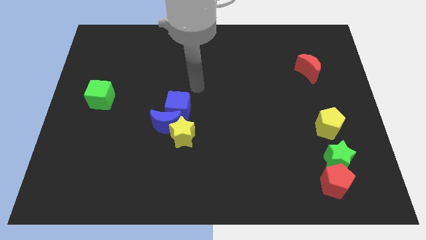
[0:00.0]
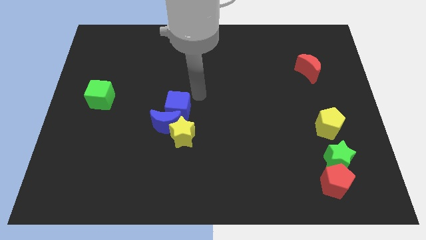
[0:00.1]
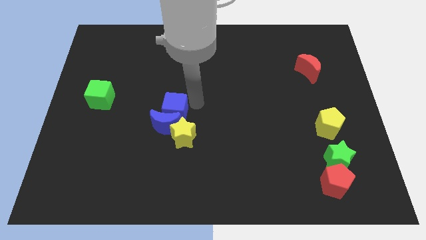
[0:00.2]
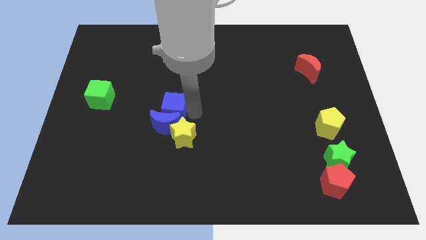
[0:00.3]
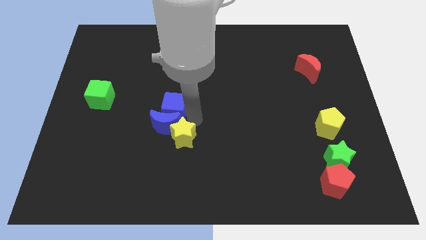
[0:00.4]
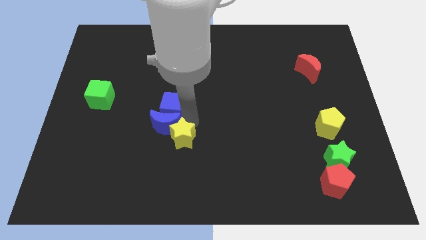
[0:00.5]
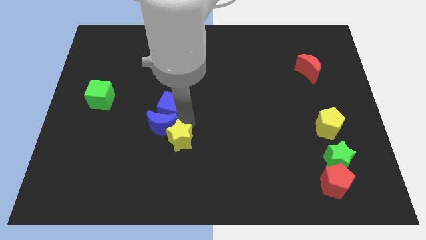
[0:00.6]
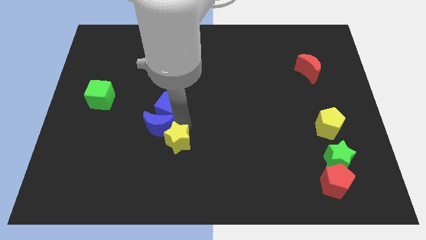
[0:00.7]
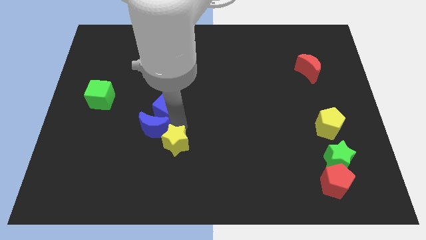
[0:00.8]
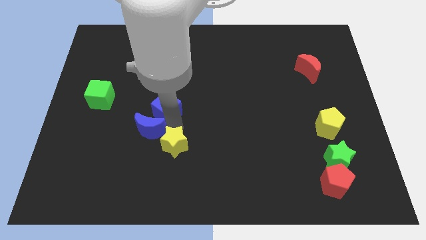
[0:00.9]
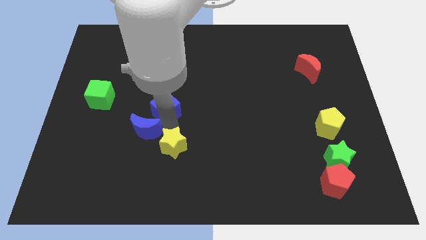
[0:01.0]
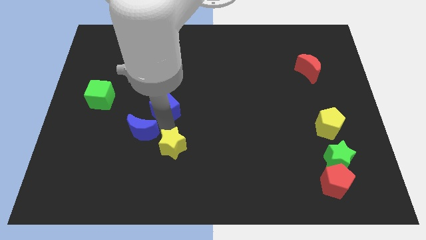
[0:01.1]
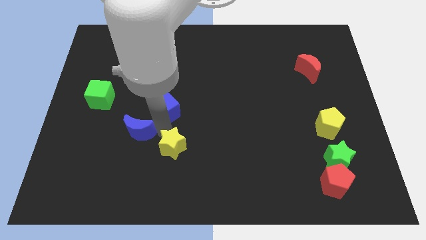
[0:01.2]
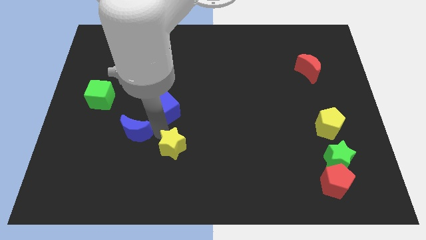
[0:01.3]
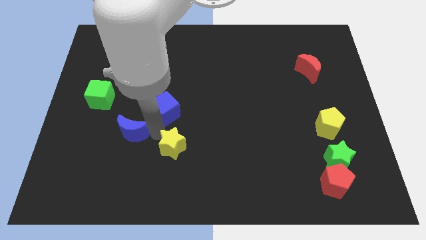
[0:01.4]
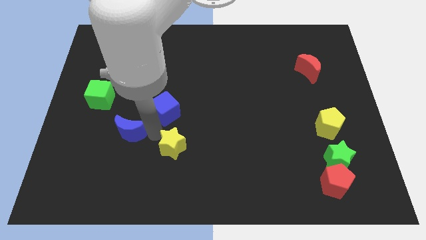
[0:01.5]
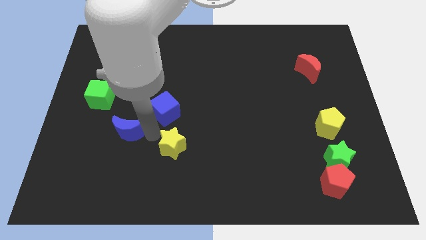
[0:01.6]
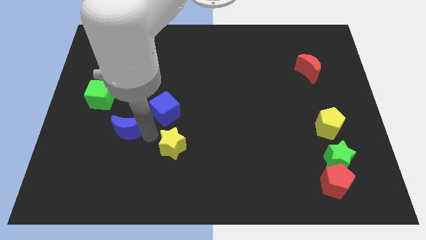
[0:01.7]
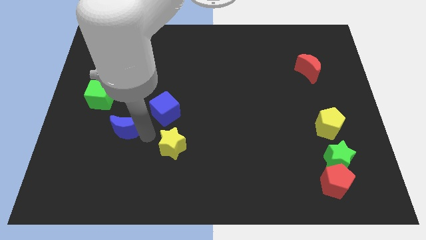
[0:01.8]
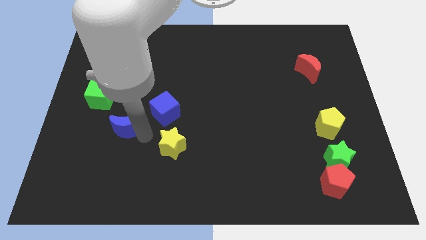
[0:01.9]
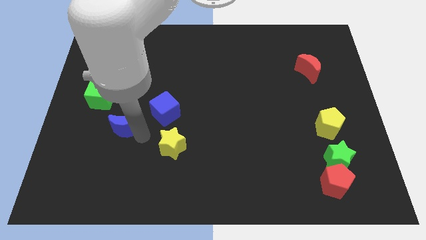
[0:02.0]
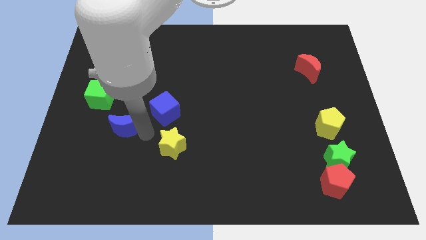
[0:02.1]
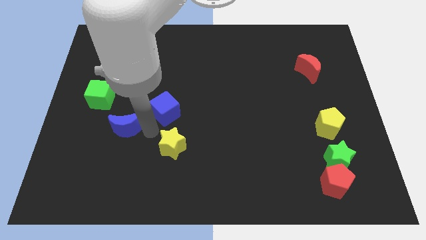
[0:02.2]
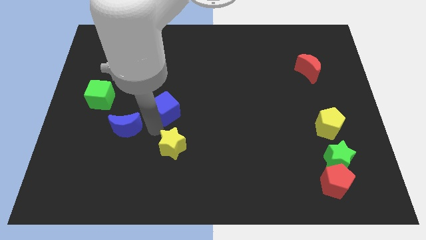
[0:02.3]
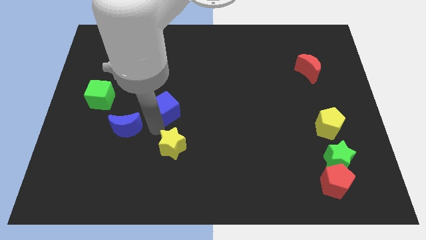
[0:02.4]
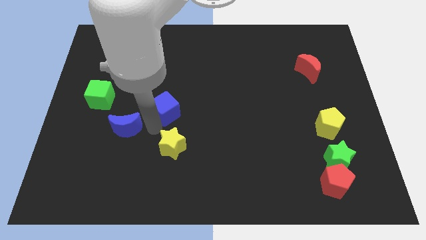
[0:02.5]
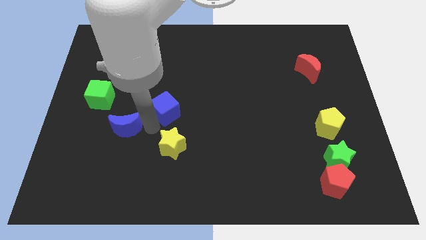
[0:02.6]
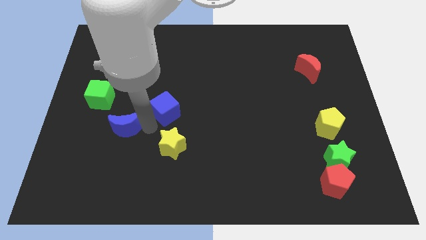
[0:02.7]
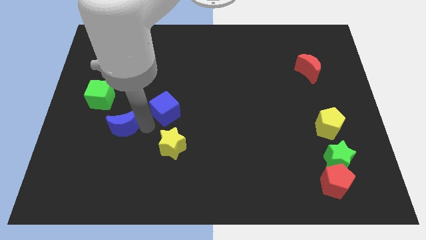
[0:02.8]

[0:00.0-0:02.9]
pull the blue moon apart from the yellow star and blue cube

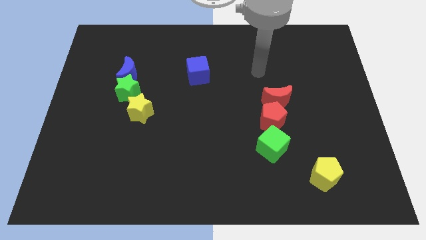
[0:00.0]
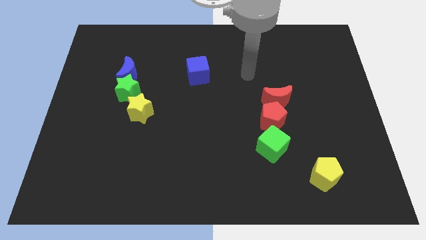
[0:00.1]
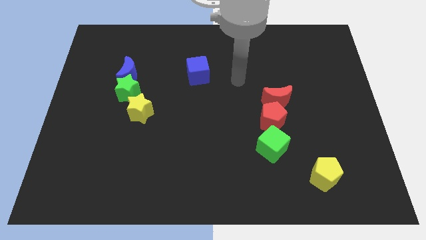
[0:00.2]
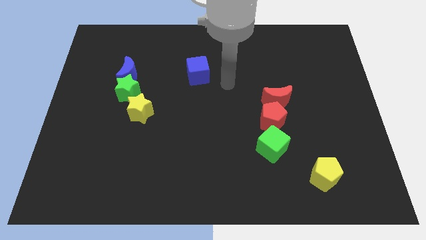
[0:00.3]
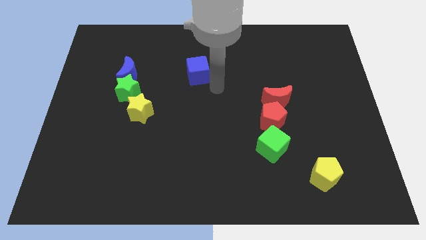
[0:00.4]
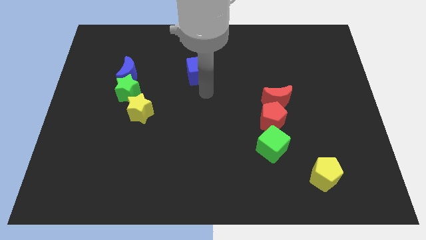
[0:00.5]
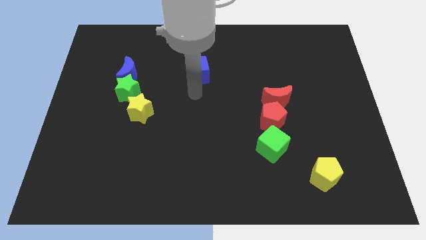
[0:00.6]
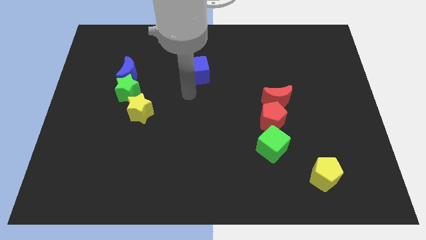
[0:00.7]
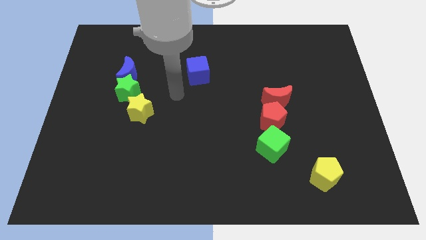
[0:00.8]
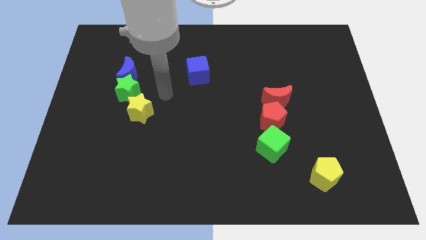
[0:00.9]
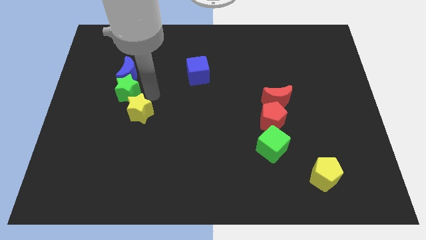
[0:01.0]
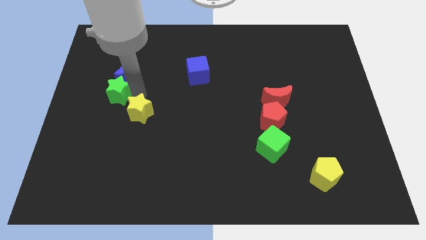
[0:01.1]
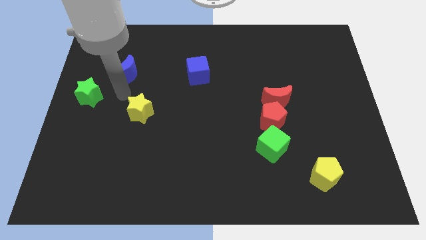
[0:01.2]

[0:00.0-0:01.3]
separate the blue moon from the green star

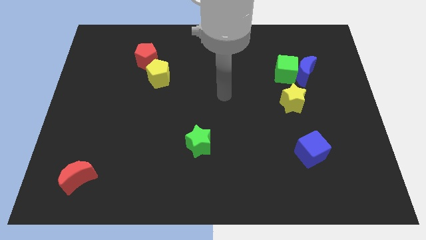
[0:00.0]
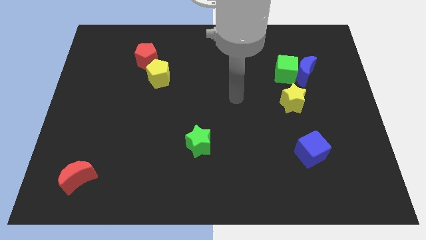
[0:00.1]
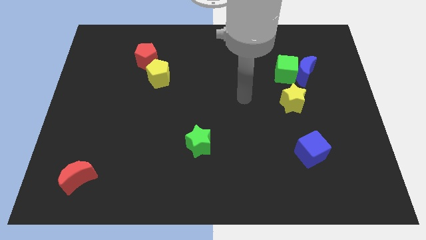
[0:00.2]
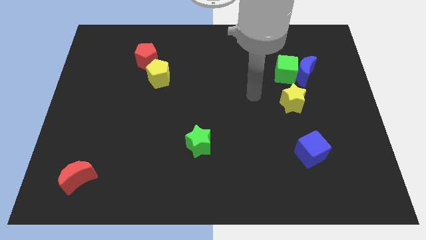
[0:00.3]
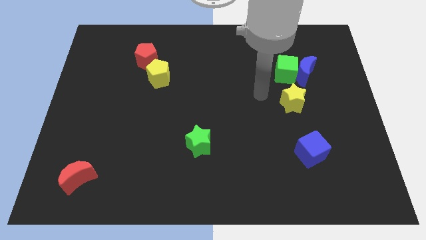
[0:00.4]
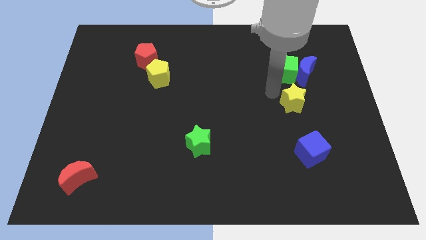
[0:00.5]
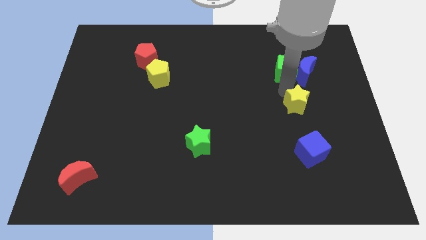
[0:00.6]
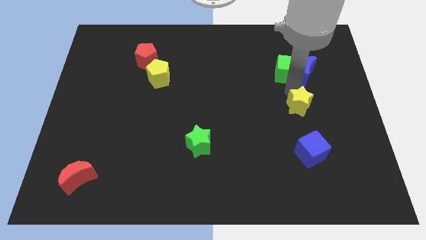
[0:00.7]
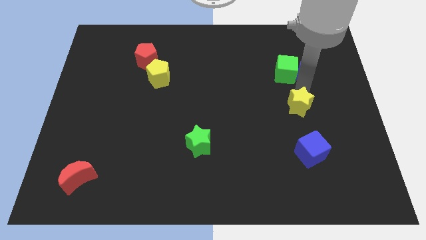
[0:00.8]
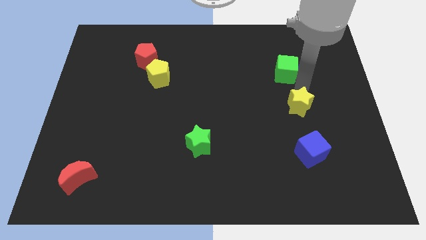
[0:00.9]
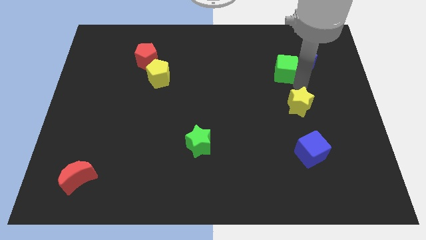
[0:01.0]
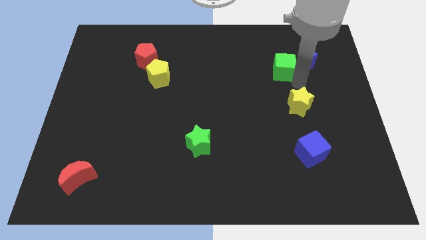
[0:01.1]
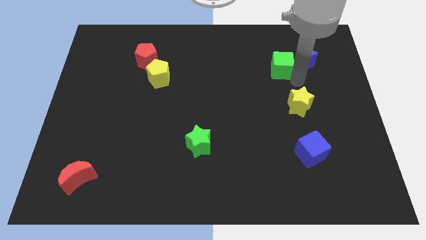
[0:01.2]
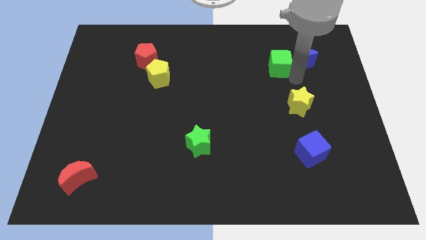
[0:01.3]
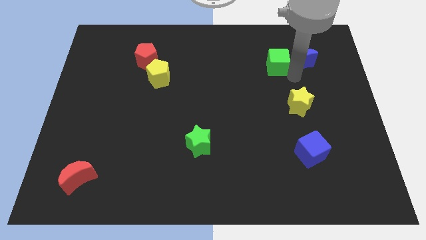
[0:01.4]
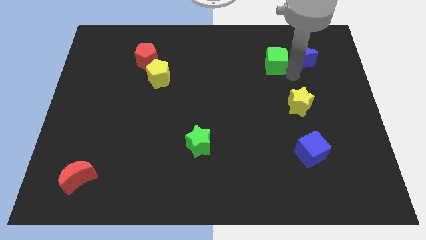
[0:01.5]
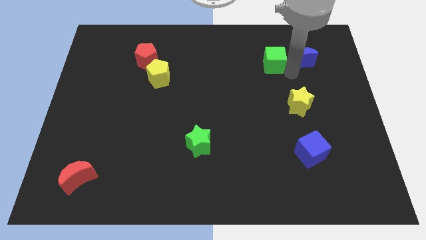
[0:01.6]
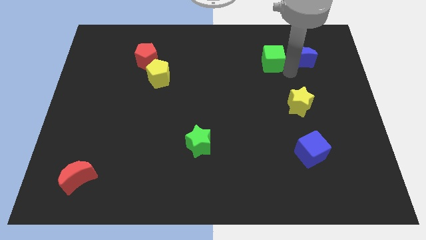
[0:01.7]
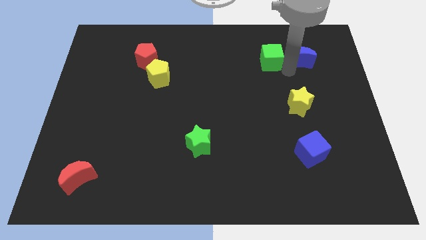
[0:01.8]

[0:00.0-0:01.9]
move the green cube away from the blue moon and yellow star

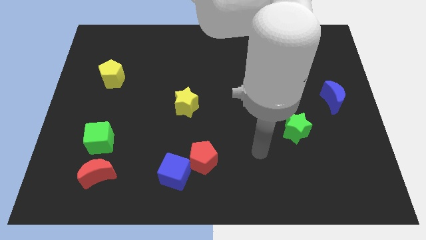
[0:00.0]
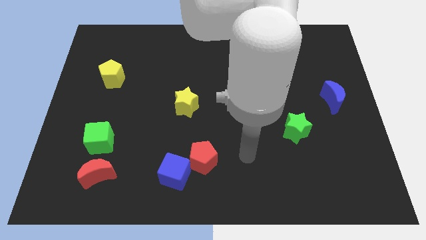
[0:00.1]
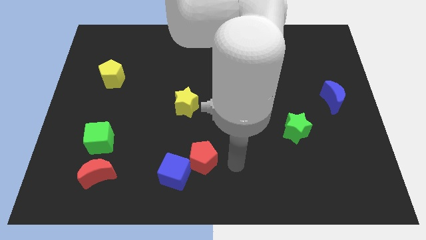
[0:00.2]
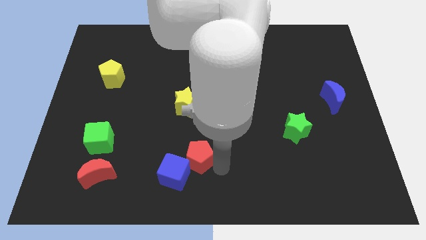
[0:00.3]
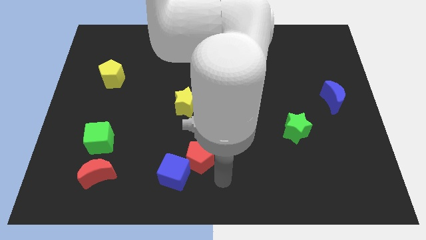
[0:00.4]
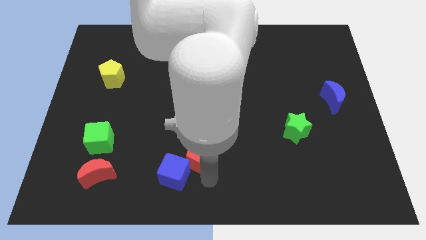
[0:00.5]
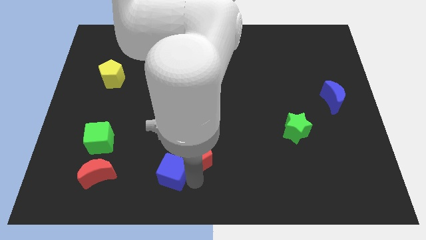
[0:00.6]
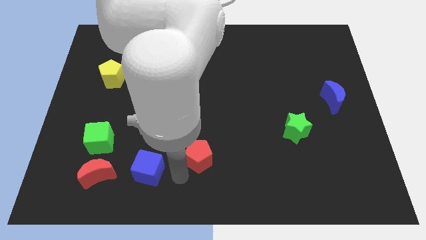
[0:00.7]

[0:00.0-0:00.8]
move the red pentagon away from the blue cube

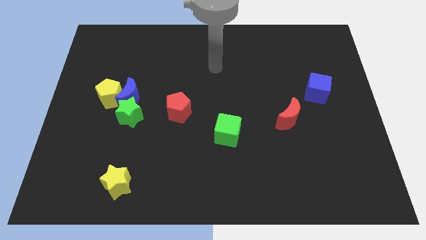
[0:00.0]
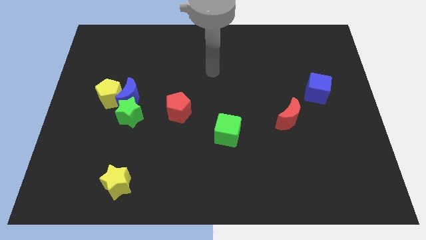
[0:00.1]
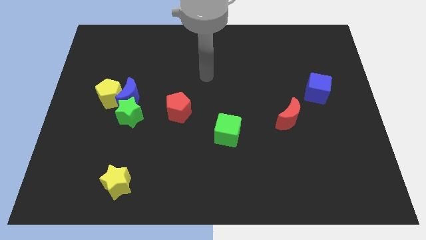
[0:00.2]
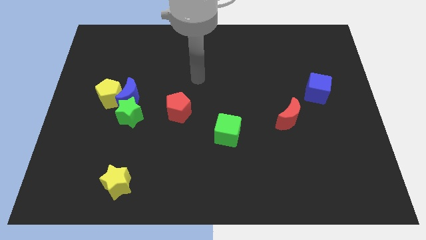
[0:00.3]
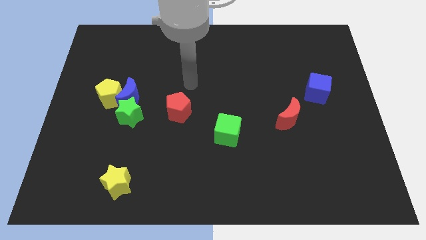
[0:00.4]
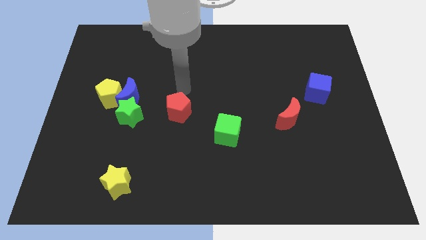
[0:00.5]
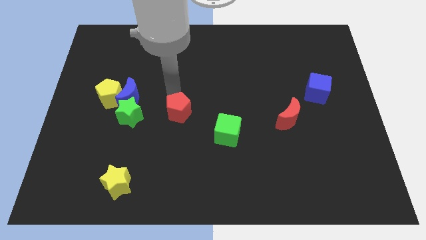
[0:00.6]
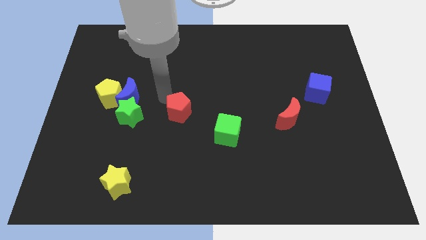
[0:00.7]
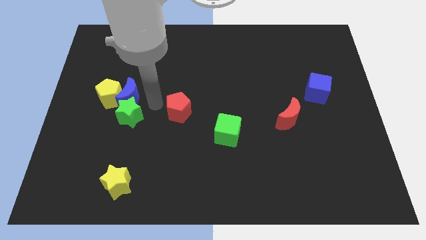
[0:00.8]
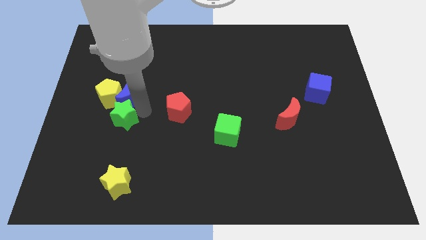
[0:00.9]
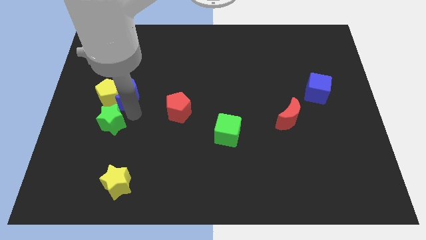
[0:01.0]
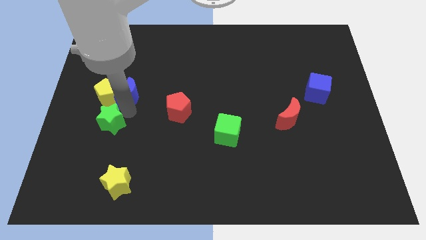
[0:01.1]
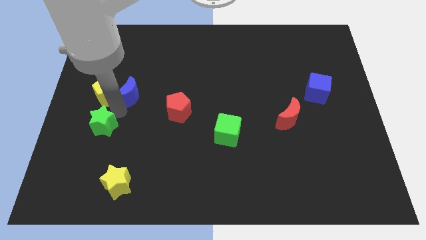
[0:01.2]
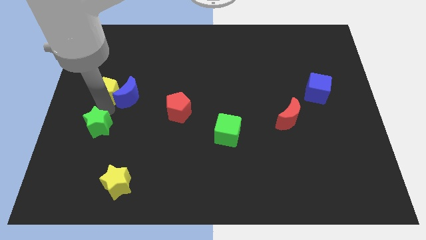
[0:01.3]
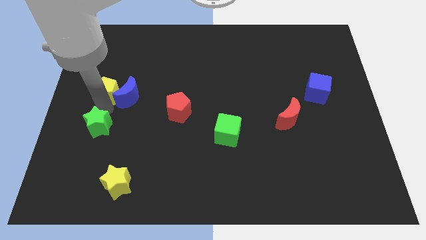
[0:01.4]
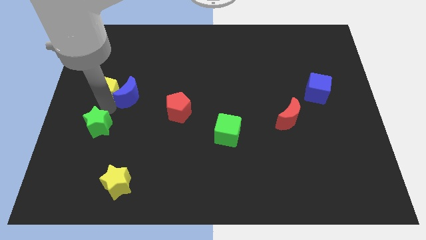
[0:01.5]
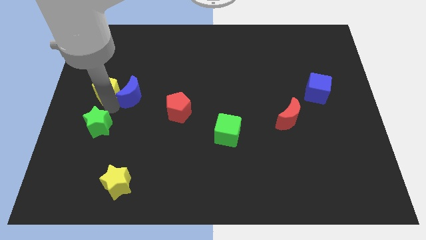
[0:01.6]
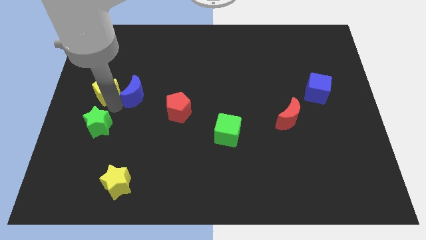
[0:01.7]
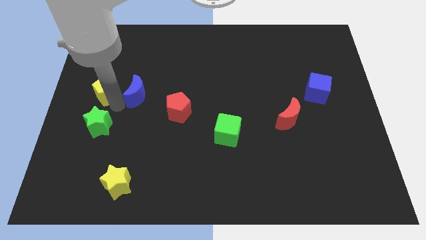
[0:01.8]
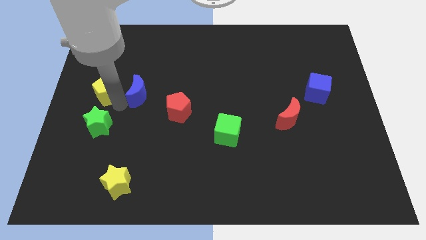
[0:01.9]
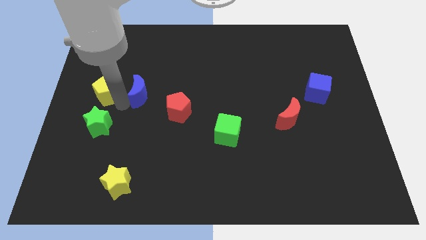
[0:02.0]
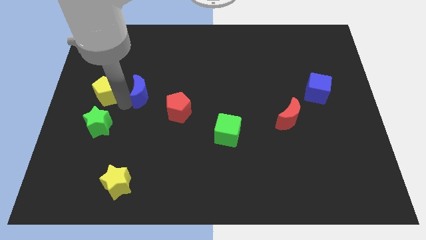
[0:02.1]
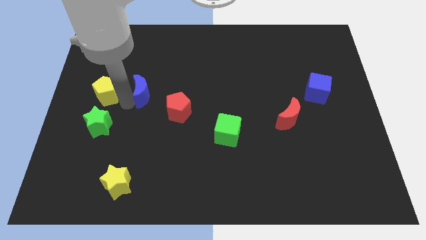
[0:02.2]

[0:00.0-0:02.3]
pull the blue moon apart from the yellow pentagon and green star
